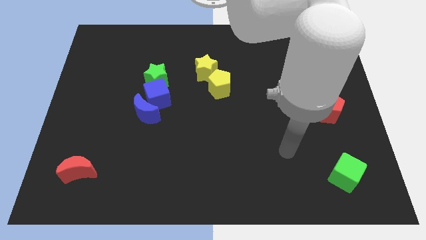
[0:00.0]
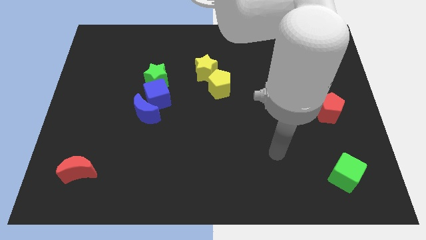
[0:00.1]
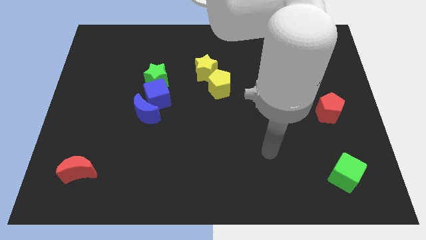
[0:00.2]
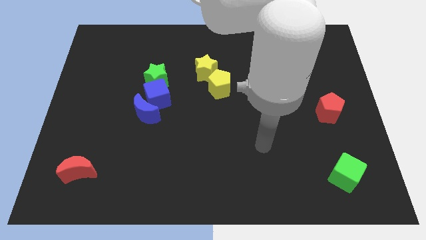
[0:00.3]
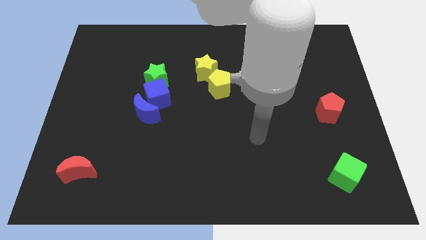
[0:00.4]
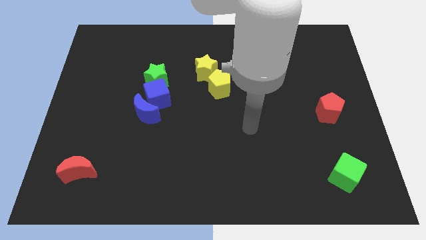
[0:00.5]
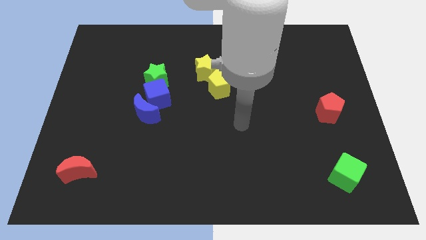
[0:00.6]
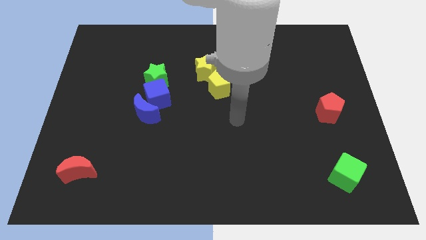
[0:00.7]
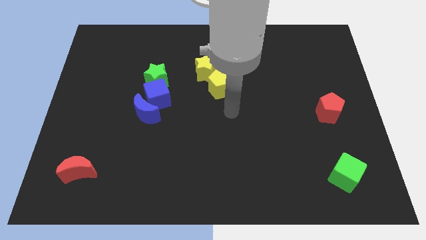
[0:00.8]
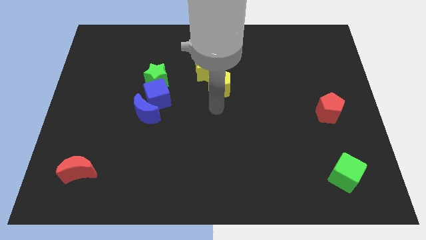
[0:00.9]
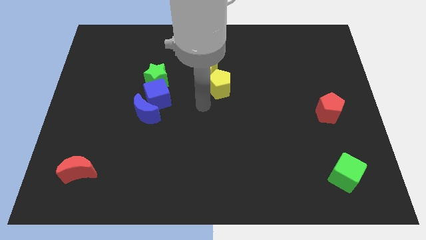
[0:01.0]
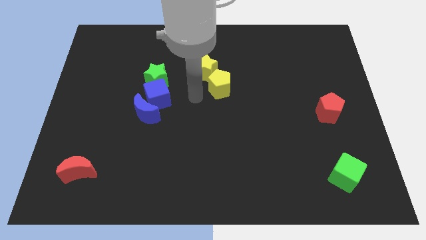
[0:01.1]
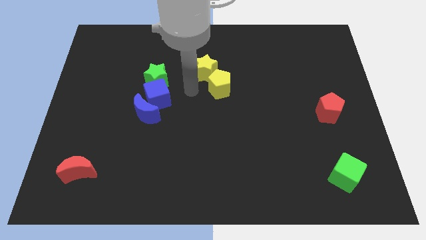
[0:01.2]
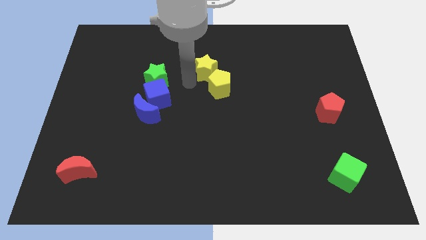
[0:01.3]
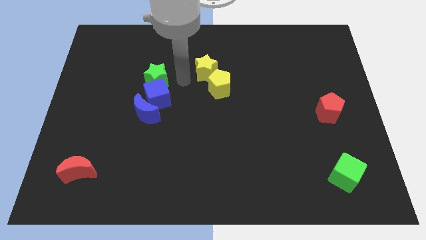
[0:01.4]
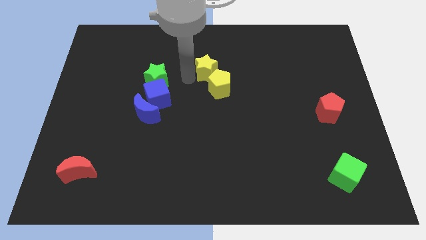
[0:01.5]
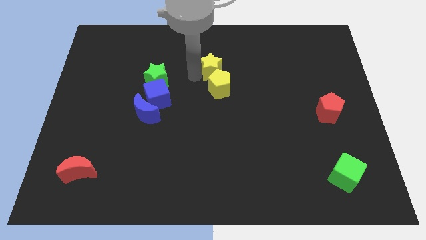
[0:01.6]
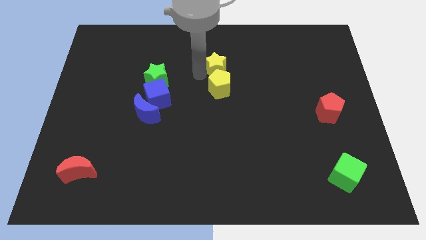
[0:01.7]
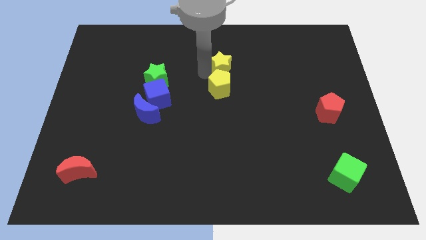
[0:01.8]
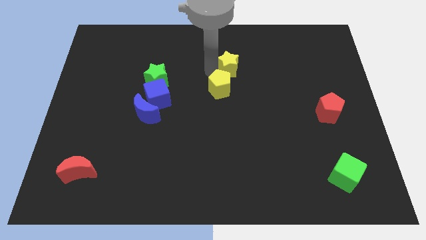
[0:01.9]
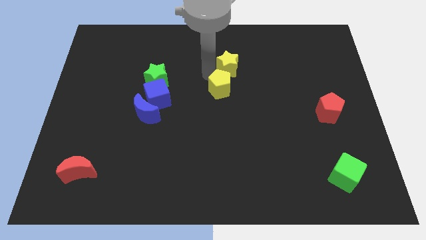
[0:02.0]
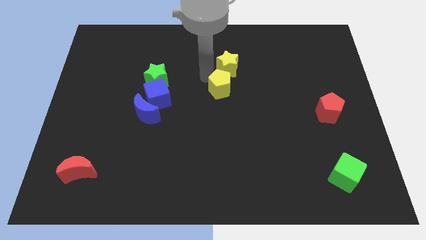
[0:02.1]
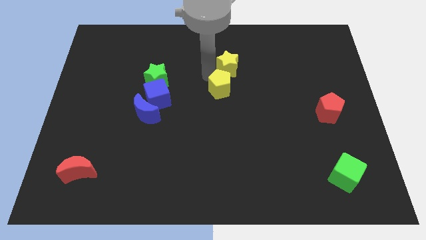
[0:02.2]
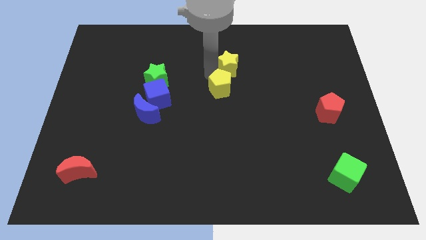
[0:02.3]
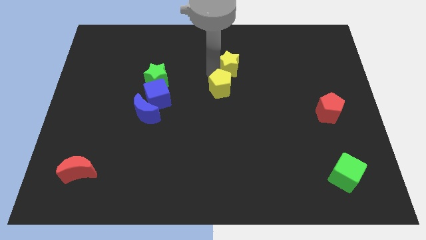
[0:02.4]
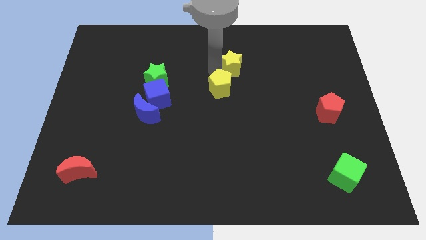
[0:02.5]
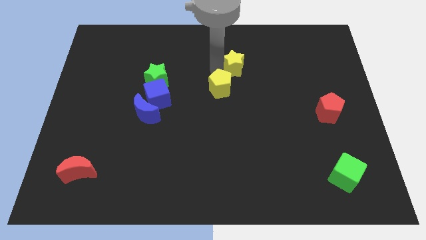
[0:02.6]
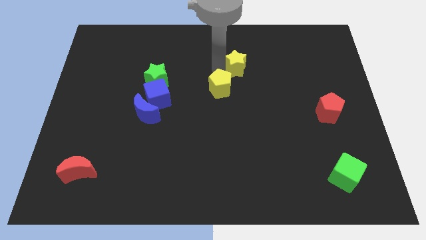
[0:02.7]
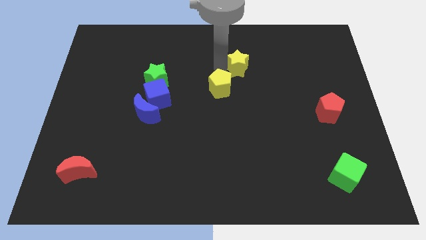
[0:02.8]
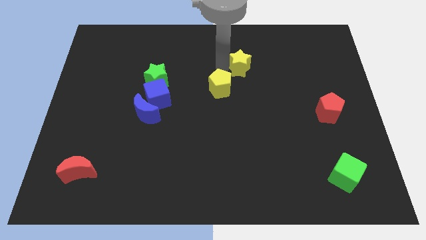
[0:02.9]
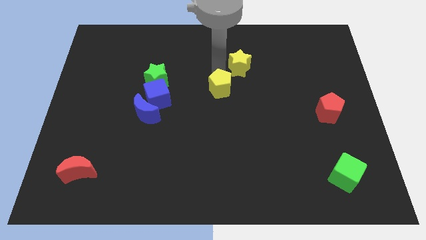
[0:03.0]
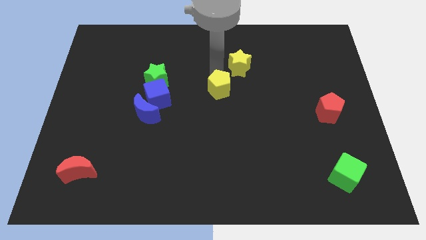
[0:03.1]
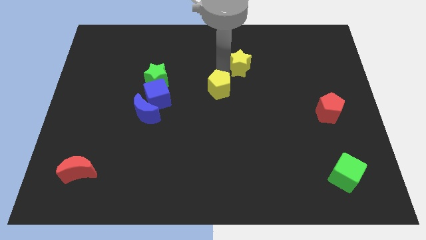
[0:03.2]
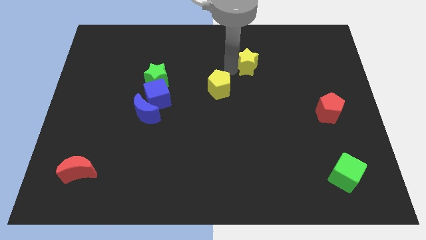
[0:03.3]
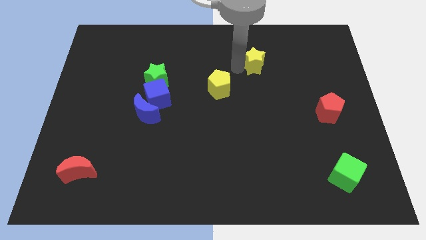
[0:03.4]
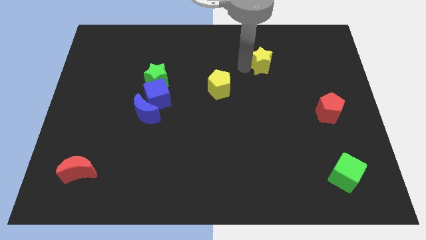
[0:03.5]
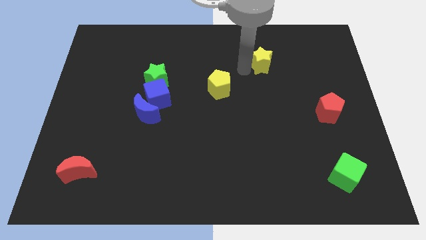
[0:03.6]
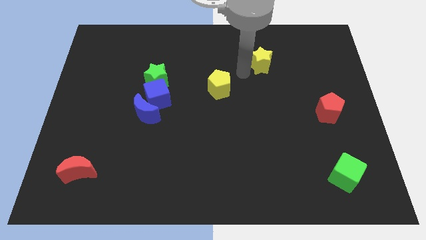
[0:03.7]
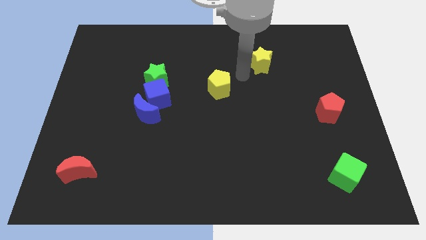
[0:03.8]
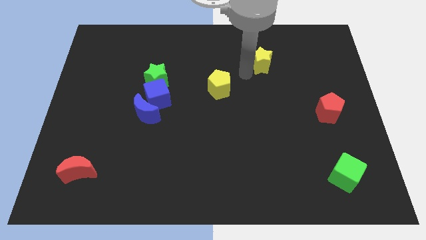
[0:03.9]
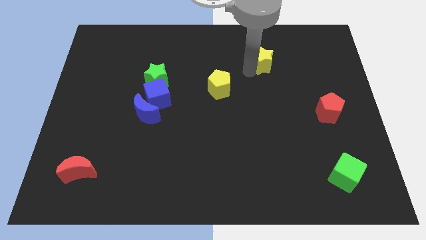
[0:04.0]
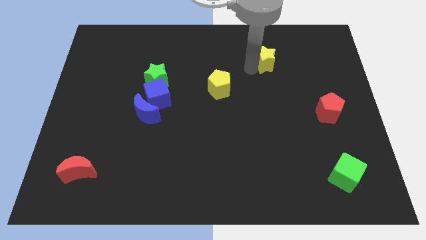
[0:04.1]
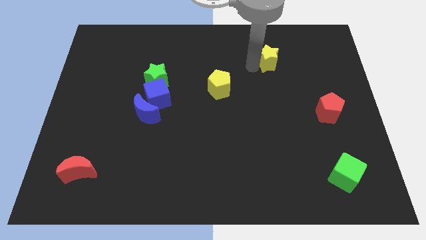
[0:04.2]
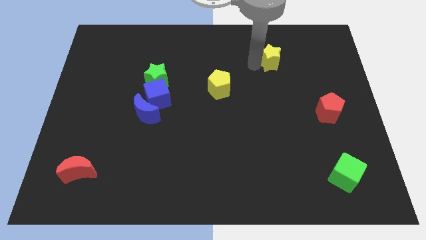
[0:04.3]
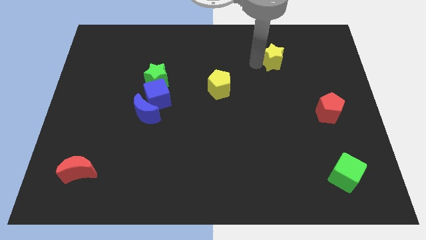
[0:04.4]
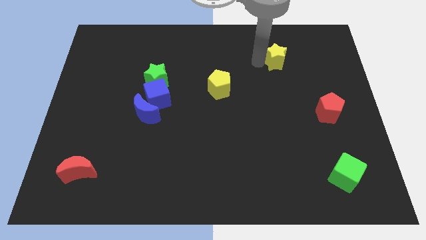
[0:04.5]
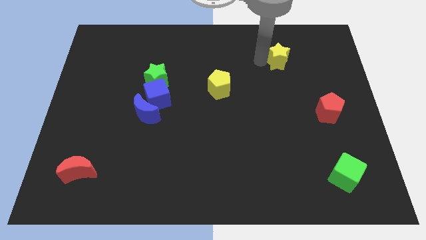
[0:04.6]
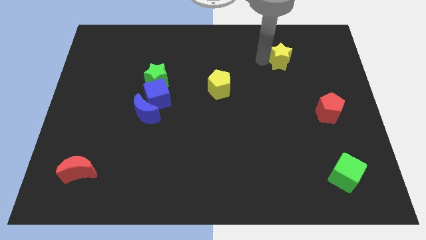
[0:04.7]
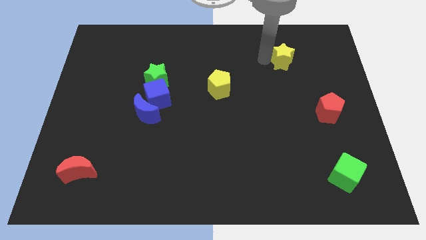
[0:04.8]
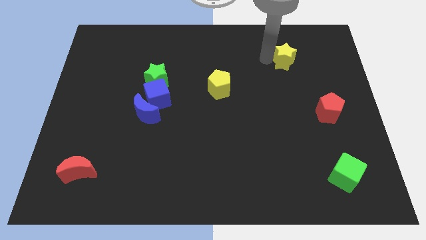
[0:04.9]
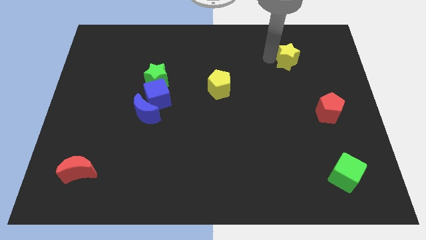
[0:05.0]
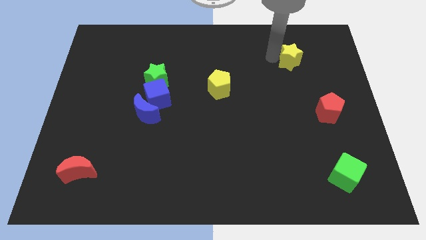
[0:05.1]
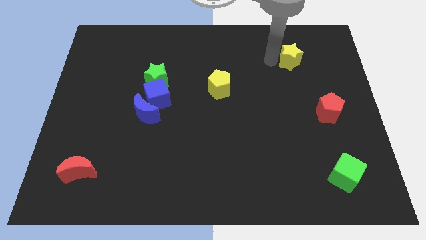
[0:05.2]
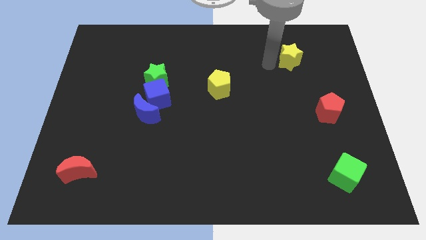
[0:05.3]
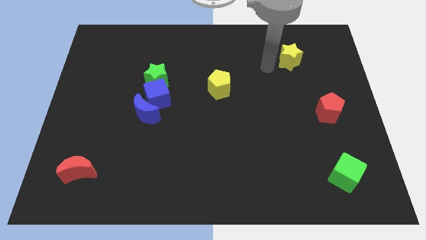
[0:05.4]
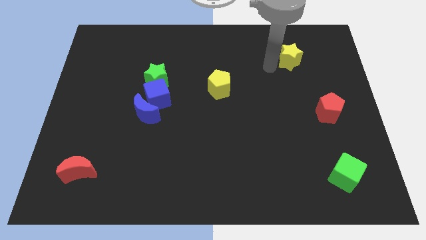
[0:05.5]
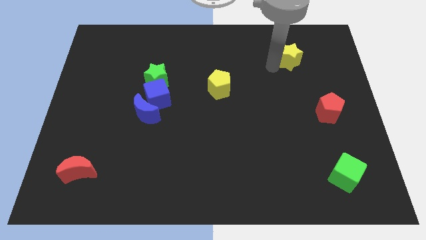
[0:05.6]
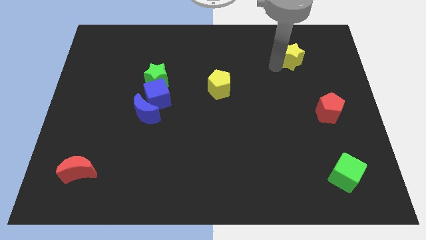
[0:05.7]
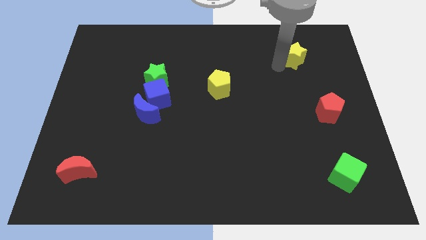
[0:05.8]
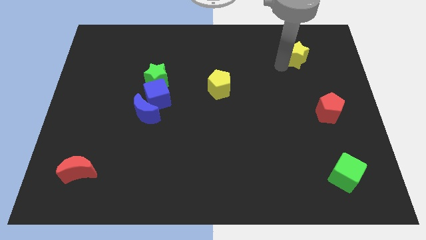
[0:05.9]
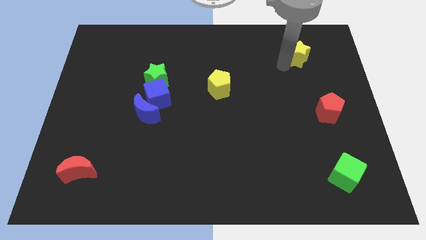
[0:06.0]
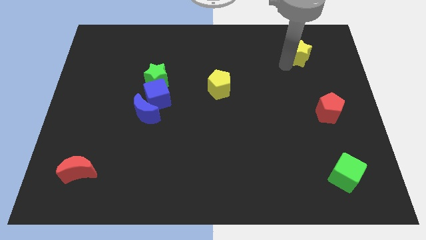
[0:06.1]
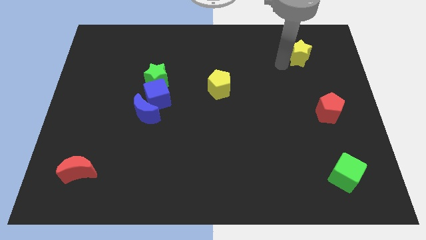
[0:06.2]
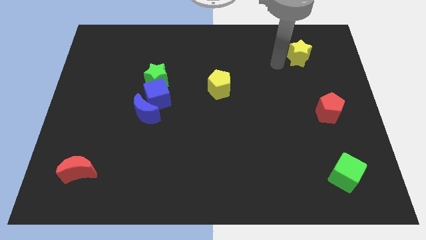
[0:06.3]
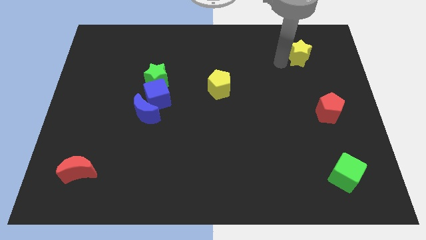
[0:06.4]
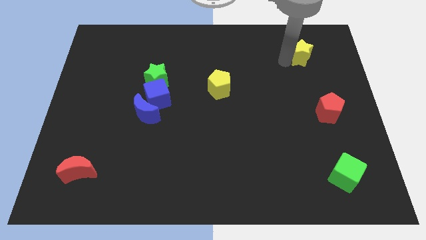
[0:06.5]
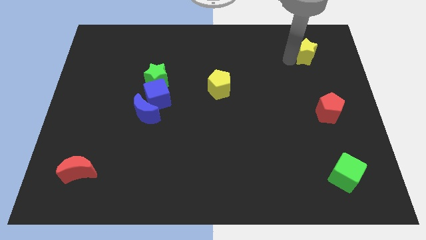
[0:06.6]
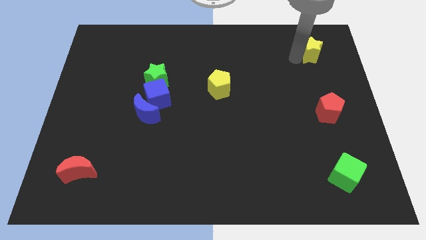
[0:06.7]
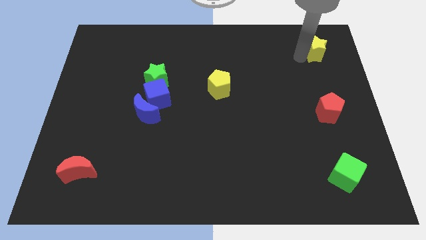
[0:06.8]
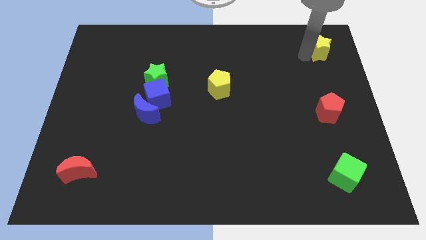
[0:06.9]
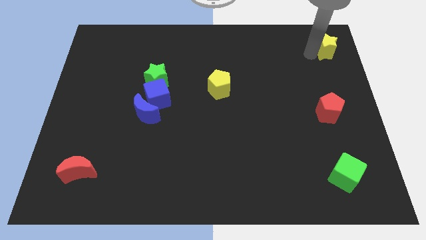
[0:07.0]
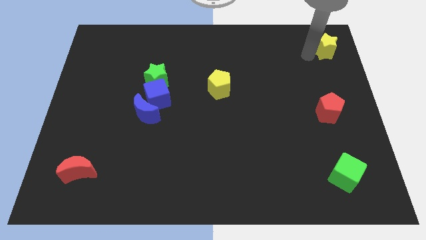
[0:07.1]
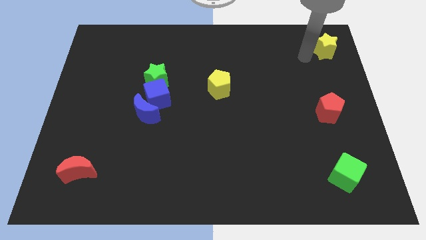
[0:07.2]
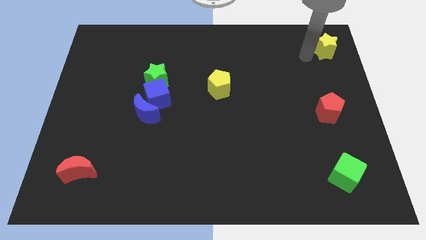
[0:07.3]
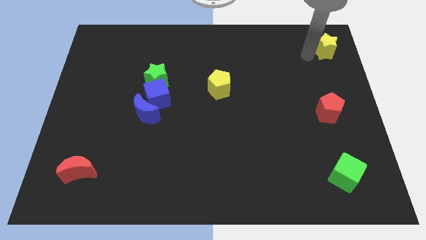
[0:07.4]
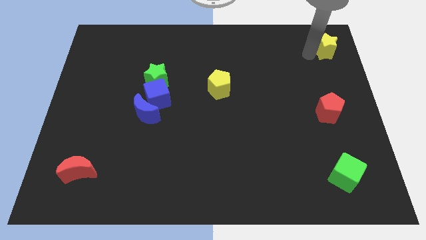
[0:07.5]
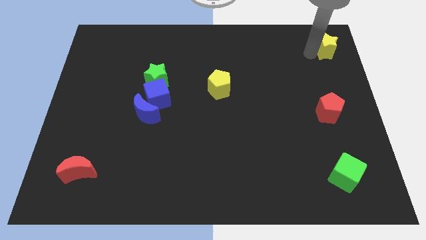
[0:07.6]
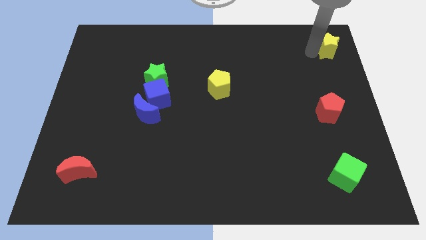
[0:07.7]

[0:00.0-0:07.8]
put the yellow star to the top right
